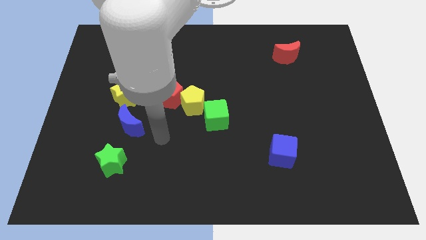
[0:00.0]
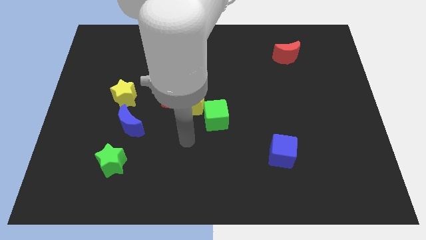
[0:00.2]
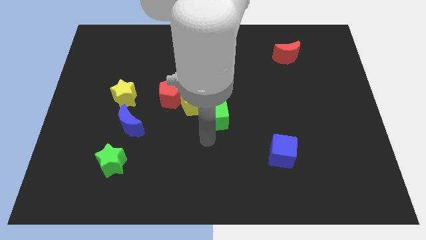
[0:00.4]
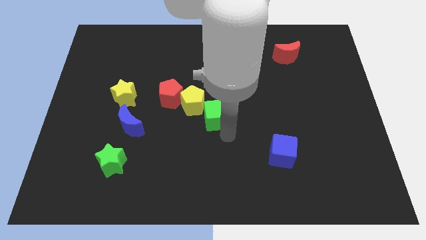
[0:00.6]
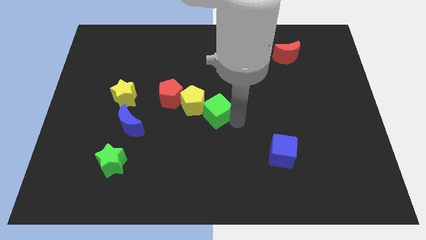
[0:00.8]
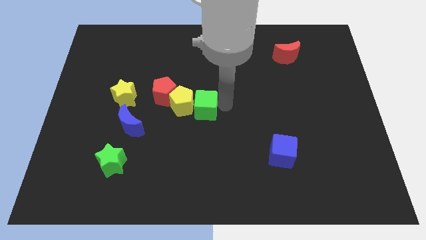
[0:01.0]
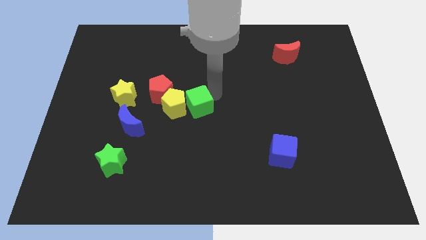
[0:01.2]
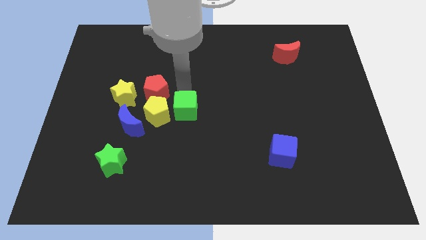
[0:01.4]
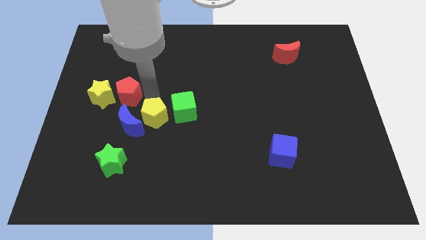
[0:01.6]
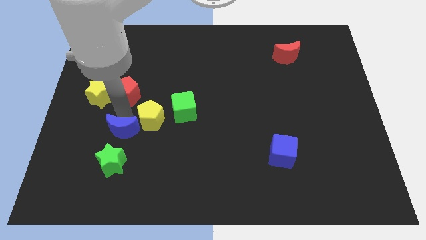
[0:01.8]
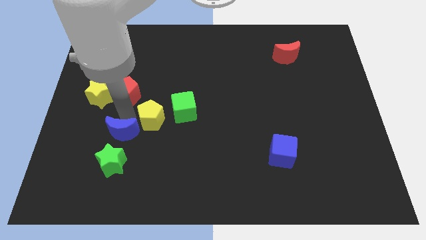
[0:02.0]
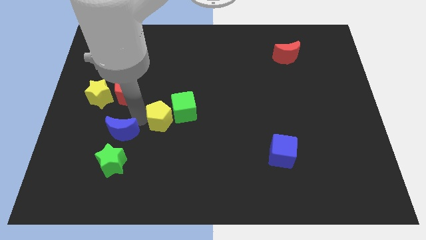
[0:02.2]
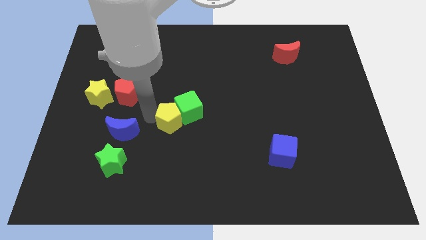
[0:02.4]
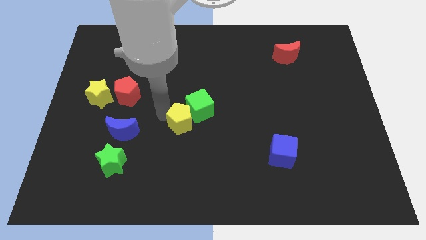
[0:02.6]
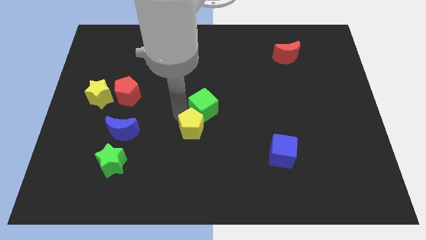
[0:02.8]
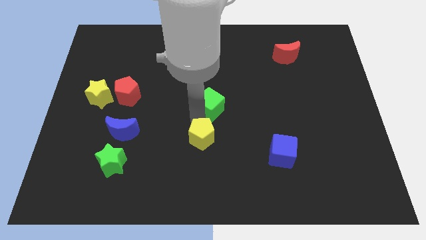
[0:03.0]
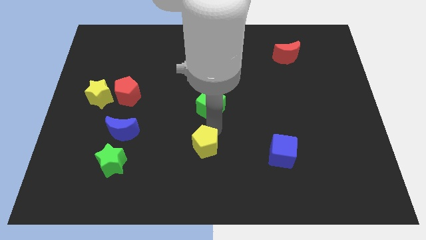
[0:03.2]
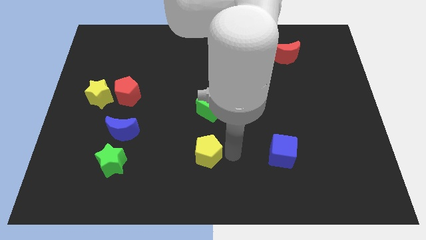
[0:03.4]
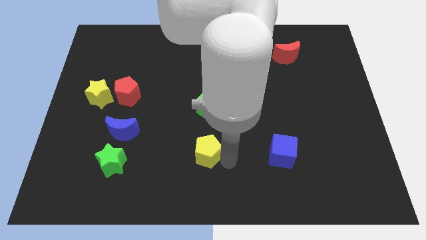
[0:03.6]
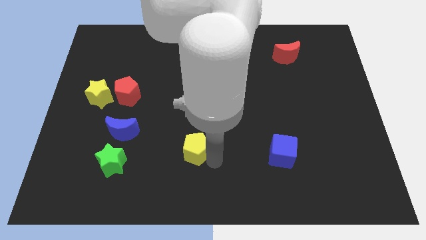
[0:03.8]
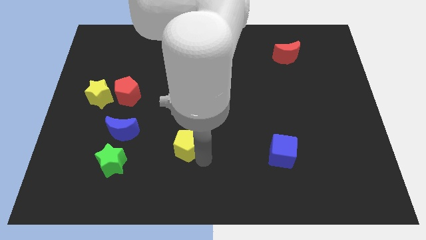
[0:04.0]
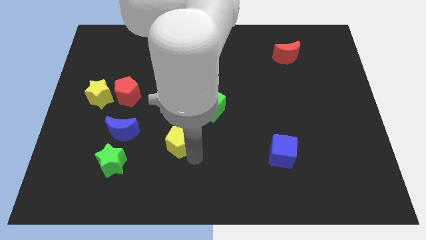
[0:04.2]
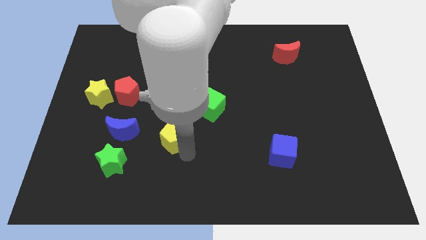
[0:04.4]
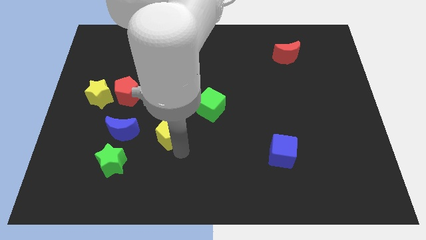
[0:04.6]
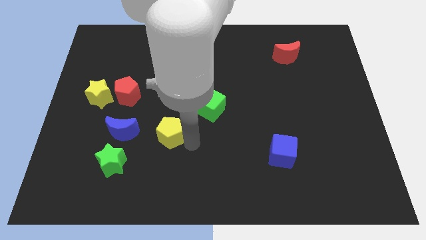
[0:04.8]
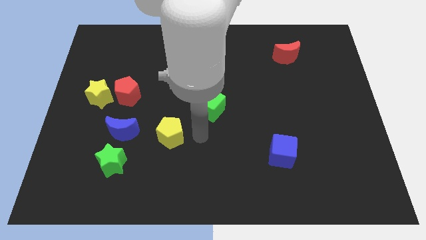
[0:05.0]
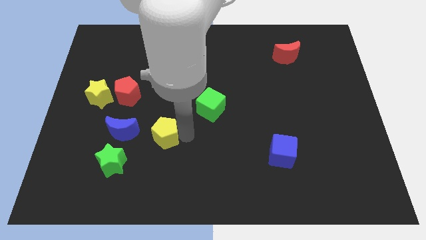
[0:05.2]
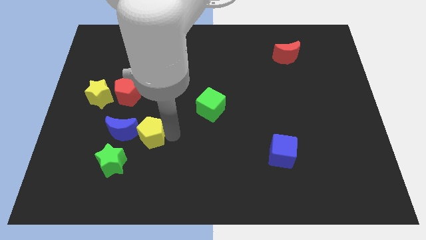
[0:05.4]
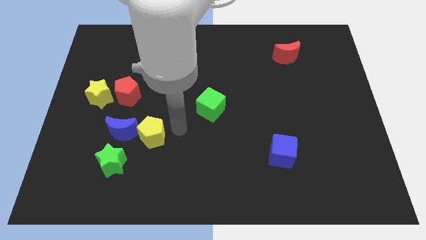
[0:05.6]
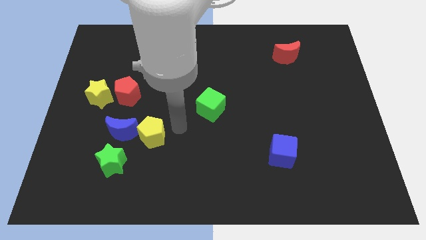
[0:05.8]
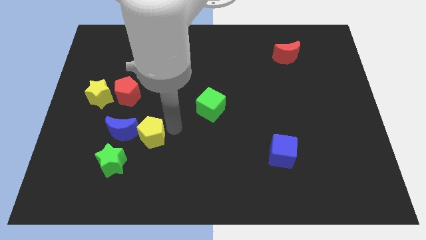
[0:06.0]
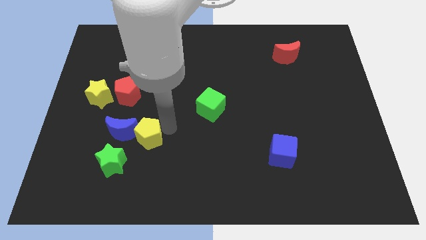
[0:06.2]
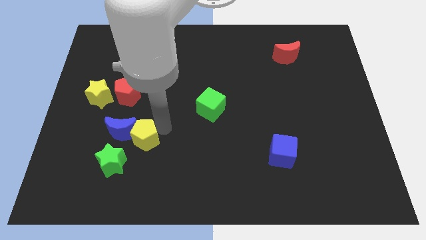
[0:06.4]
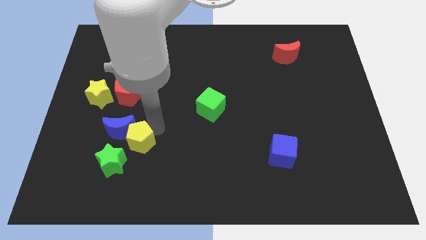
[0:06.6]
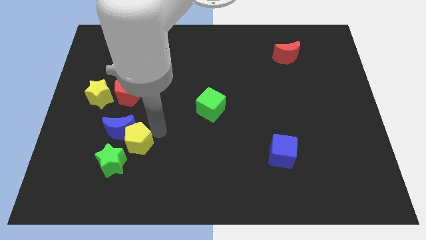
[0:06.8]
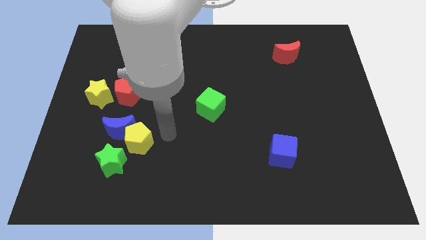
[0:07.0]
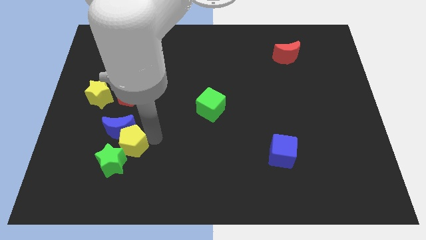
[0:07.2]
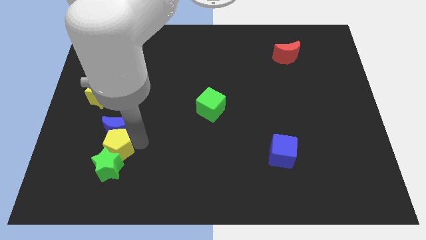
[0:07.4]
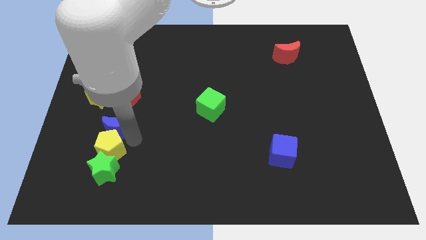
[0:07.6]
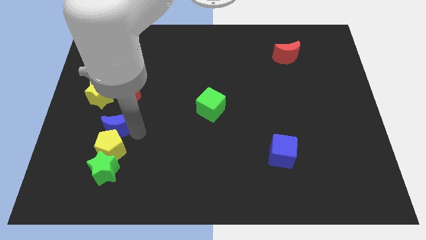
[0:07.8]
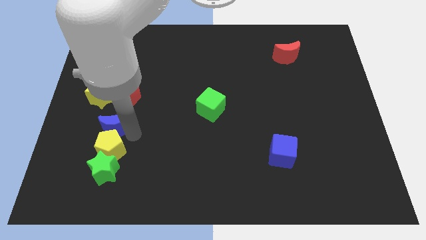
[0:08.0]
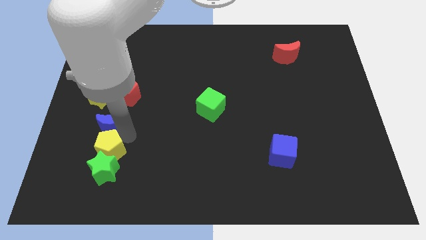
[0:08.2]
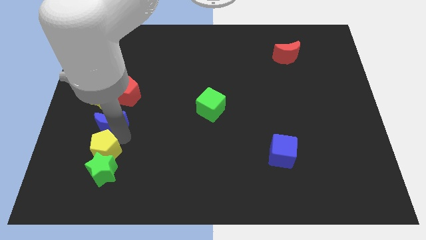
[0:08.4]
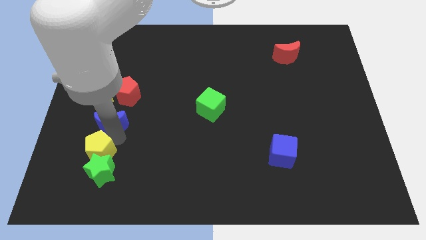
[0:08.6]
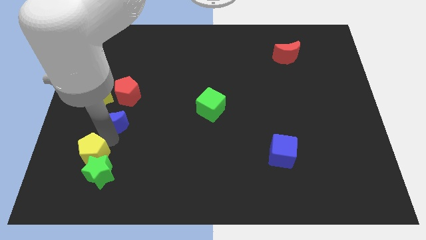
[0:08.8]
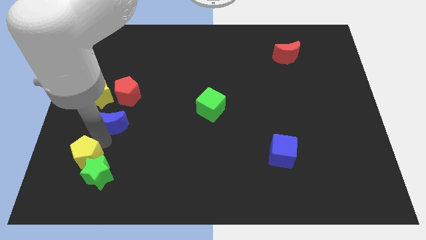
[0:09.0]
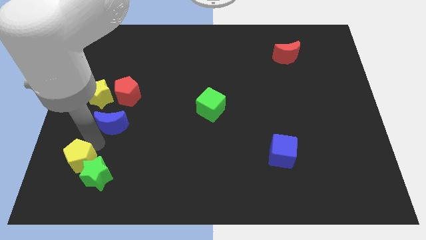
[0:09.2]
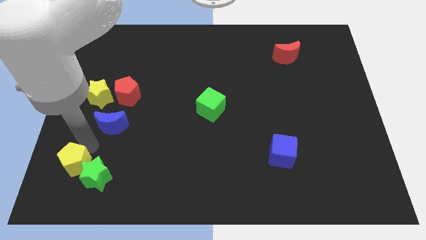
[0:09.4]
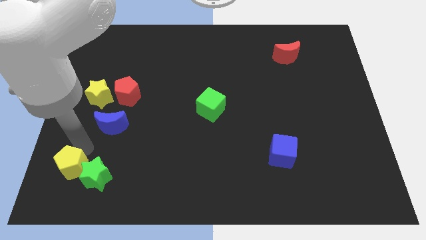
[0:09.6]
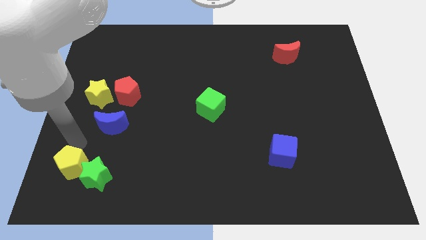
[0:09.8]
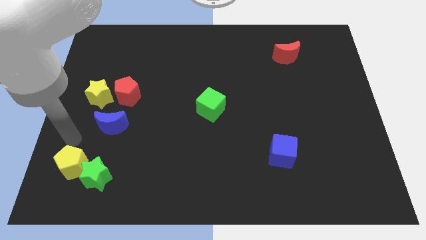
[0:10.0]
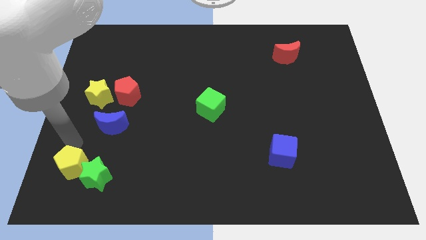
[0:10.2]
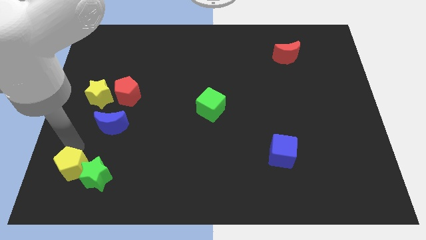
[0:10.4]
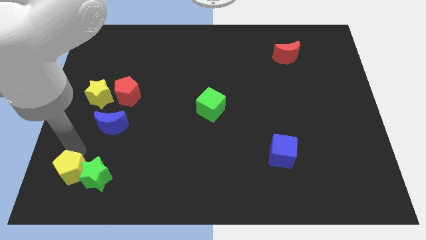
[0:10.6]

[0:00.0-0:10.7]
push the yellow pentagon to the bottom left corner

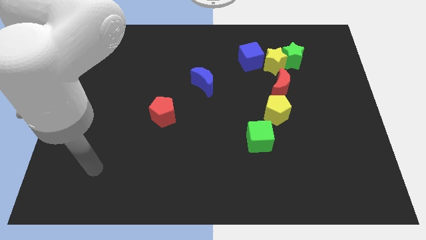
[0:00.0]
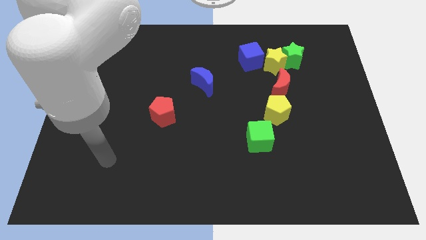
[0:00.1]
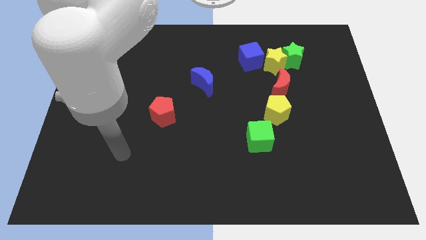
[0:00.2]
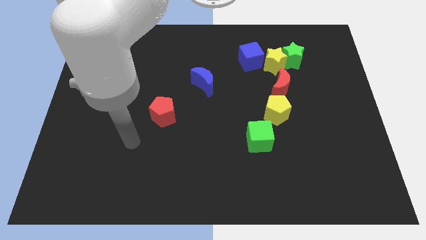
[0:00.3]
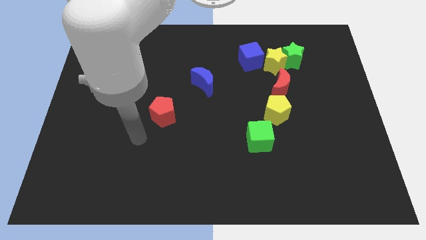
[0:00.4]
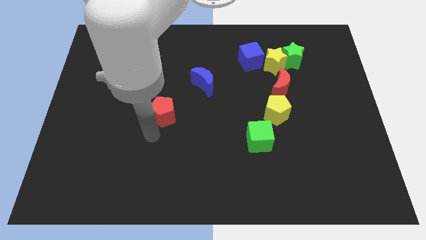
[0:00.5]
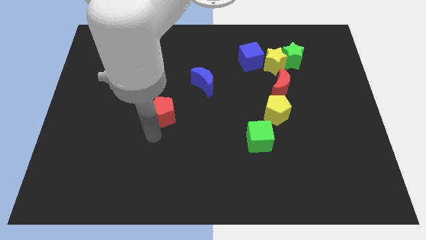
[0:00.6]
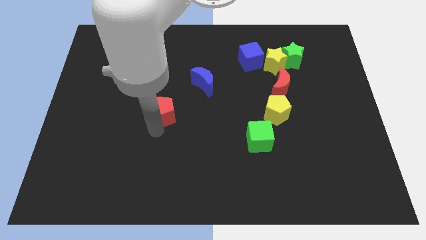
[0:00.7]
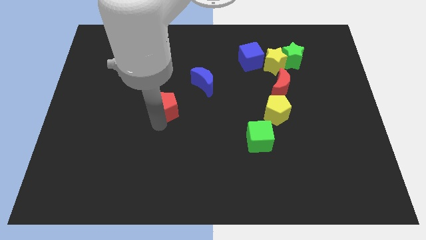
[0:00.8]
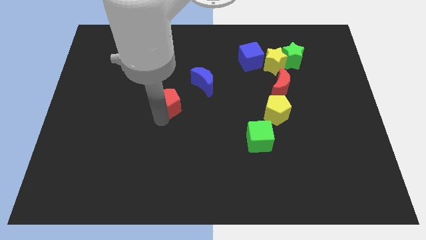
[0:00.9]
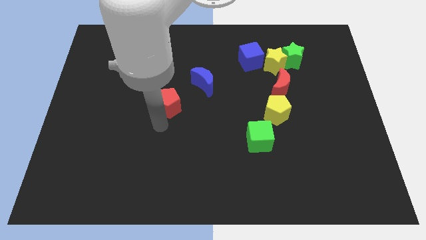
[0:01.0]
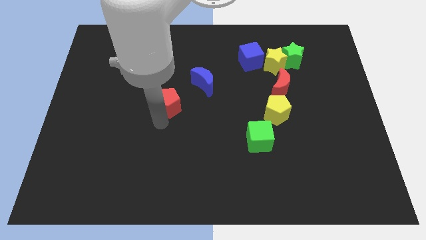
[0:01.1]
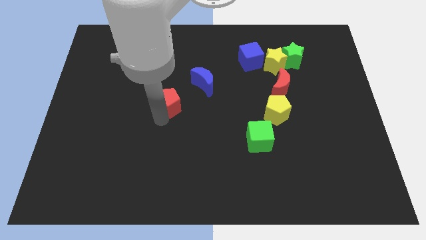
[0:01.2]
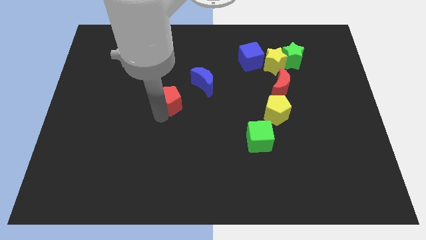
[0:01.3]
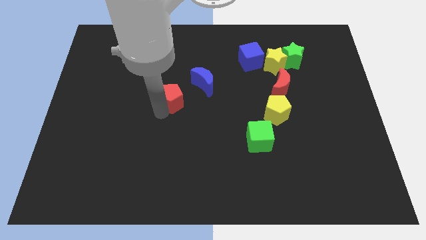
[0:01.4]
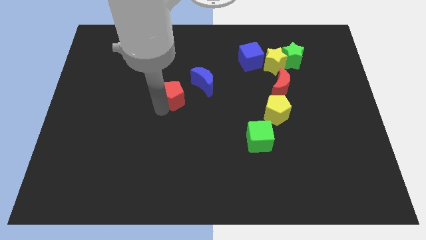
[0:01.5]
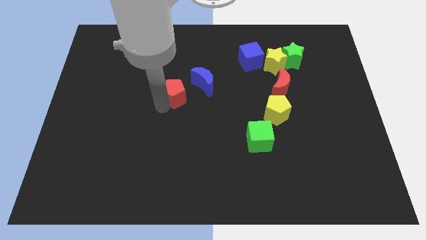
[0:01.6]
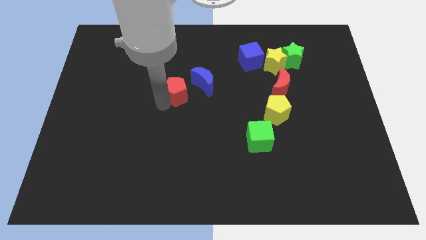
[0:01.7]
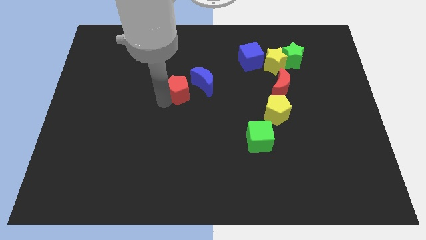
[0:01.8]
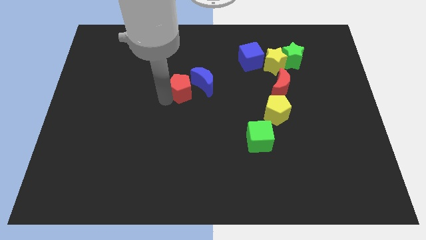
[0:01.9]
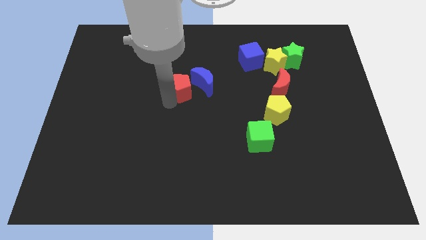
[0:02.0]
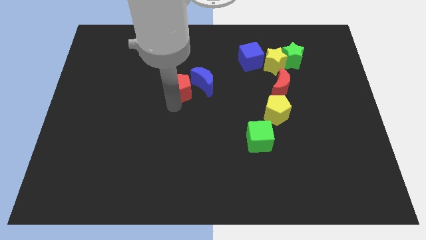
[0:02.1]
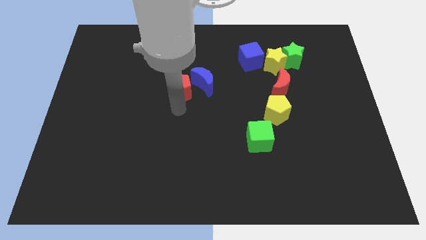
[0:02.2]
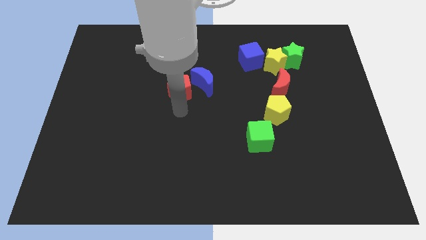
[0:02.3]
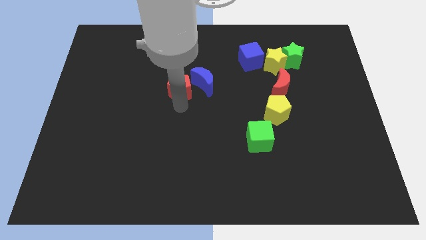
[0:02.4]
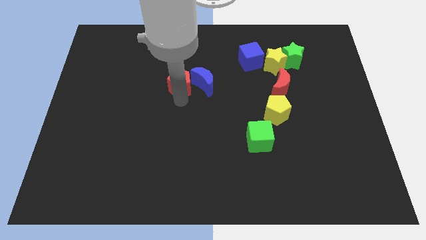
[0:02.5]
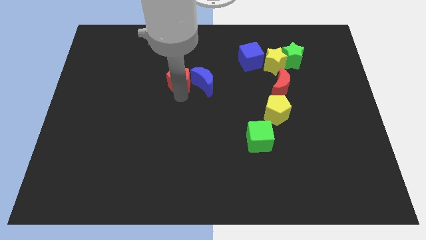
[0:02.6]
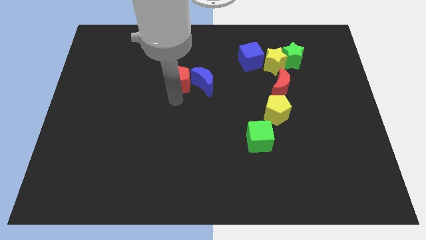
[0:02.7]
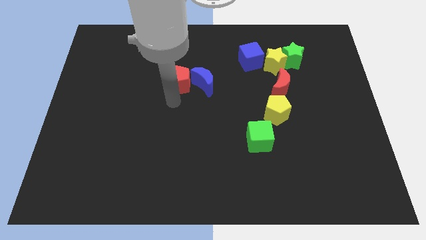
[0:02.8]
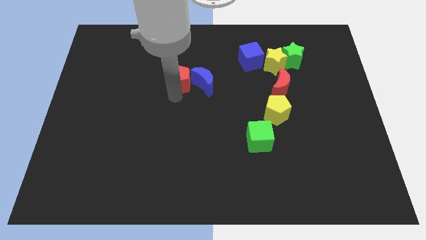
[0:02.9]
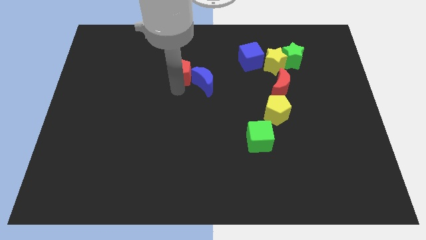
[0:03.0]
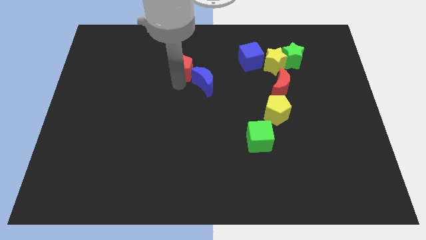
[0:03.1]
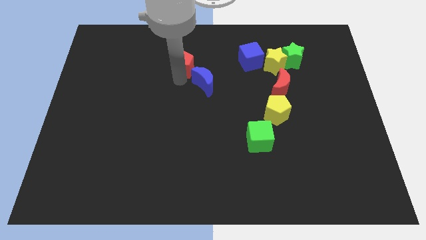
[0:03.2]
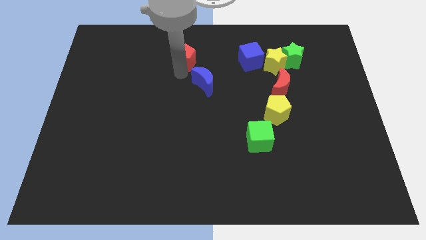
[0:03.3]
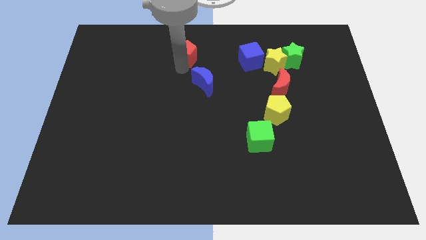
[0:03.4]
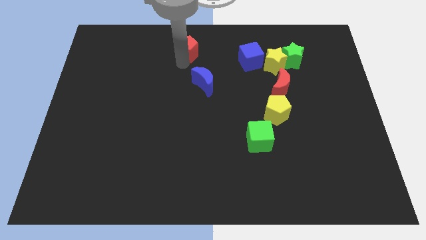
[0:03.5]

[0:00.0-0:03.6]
slide the red pentagon to the top side
